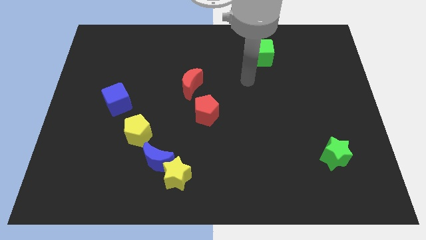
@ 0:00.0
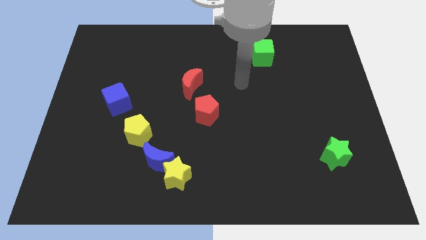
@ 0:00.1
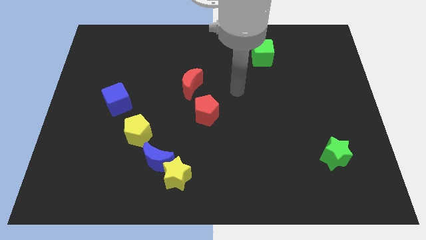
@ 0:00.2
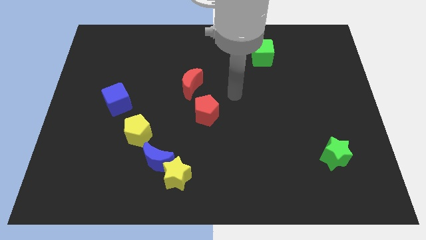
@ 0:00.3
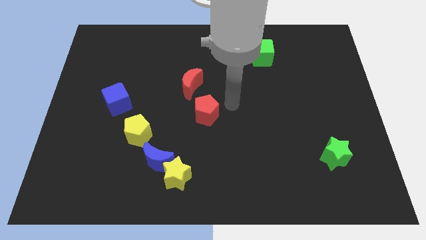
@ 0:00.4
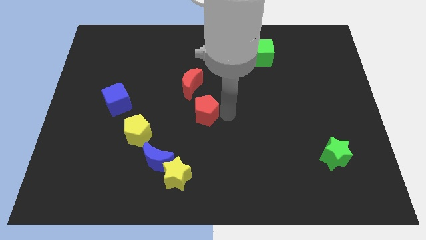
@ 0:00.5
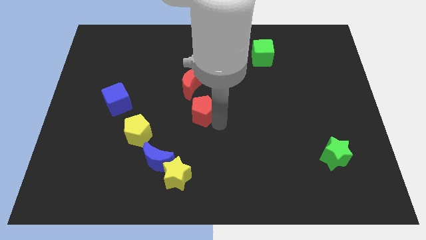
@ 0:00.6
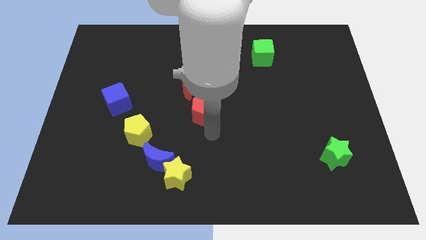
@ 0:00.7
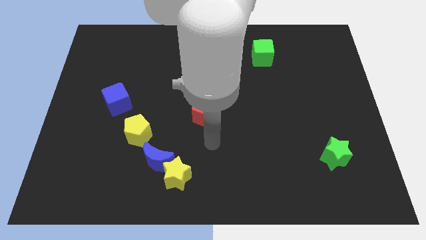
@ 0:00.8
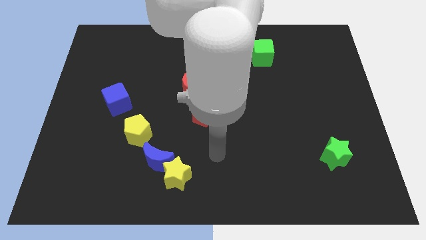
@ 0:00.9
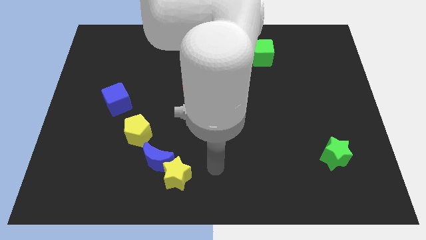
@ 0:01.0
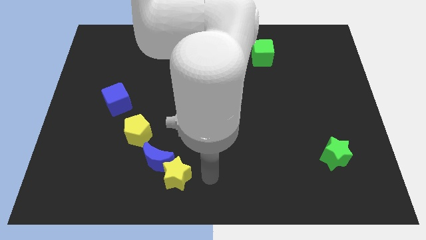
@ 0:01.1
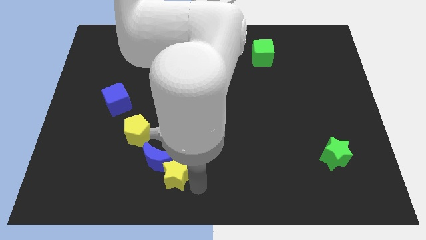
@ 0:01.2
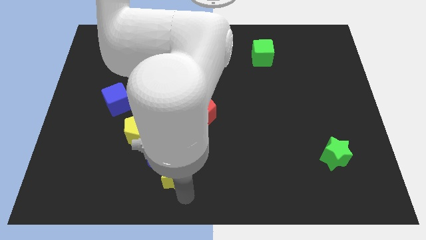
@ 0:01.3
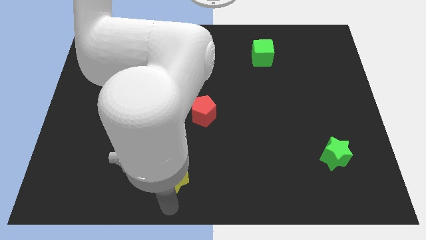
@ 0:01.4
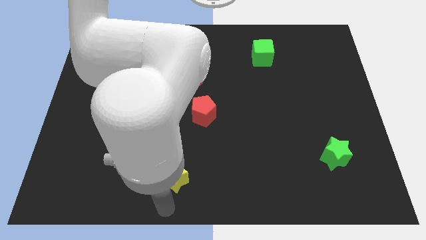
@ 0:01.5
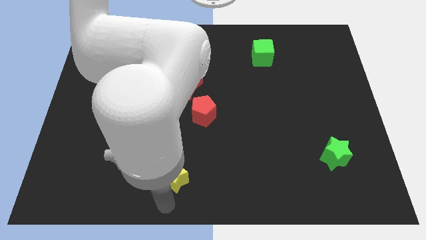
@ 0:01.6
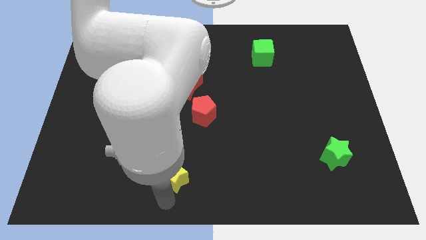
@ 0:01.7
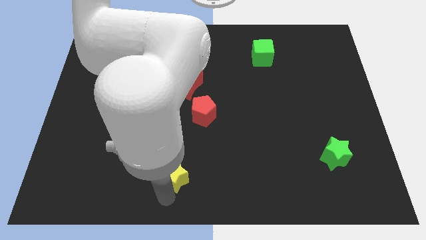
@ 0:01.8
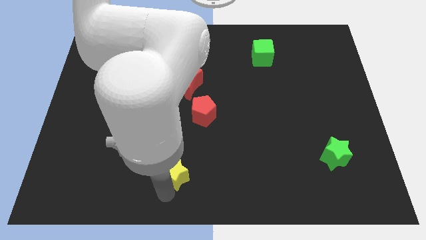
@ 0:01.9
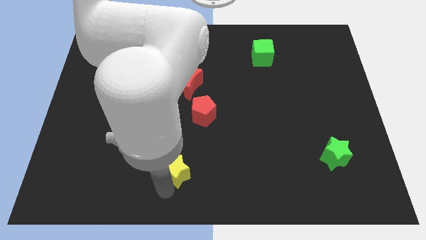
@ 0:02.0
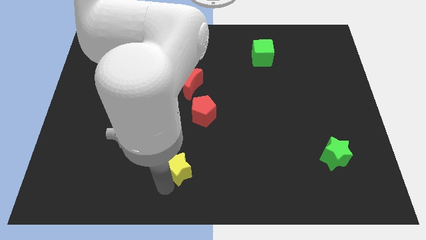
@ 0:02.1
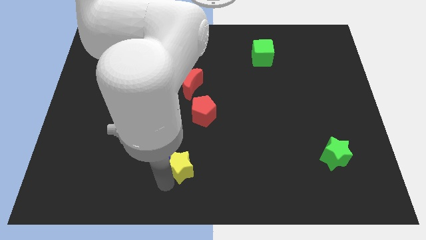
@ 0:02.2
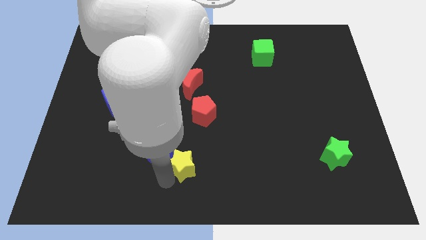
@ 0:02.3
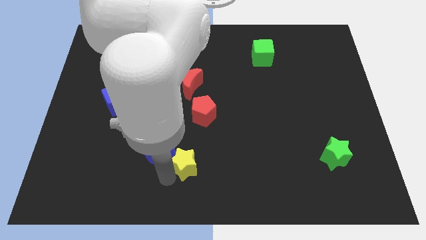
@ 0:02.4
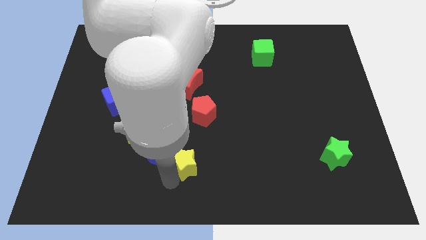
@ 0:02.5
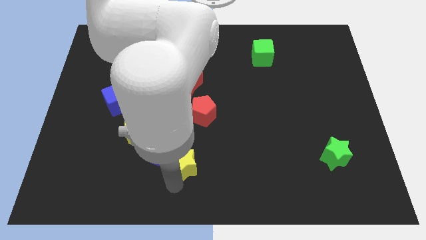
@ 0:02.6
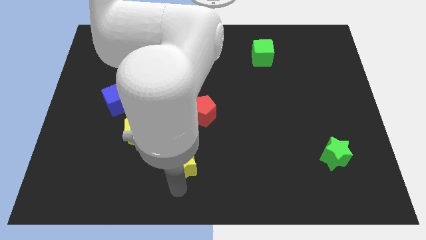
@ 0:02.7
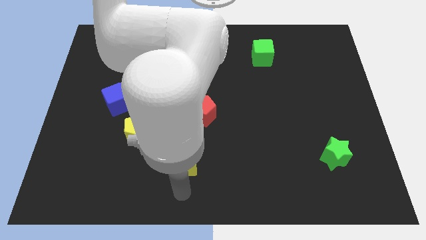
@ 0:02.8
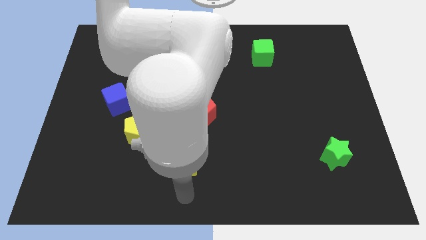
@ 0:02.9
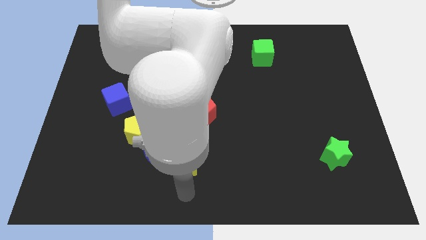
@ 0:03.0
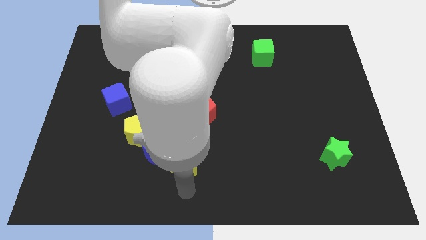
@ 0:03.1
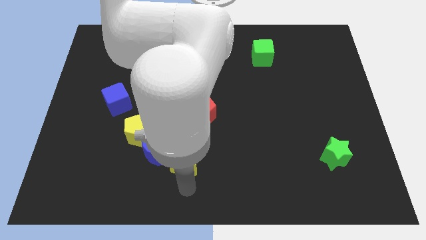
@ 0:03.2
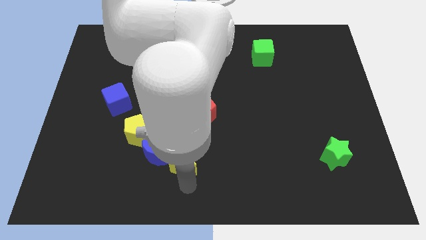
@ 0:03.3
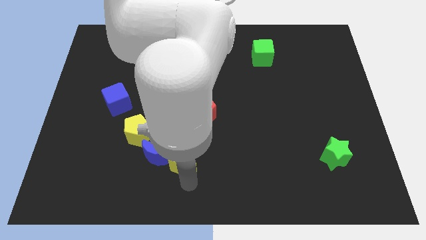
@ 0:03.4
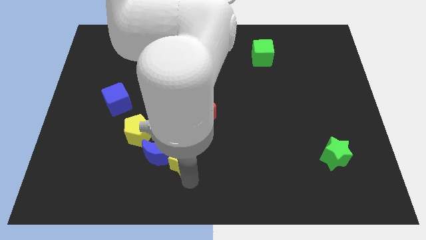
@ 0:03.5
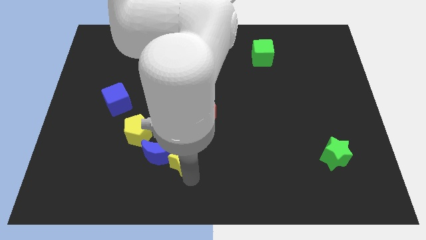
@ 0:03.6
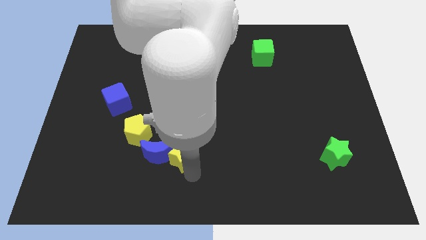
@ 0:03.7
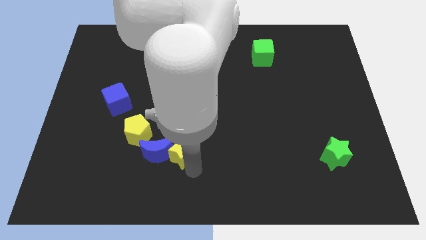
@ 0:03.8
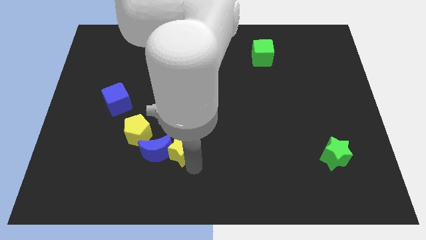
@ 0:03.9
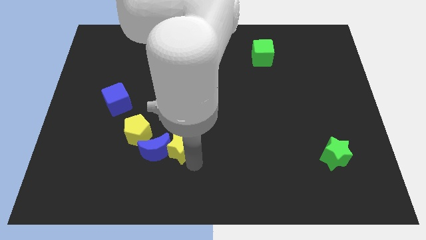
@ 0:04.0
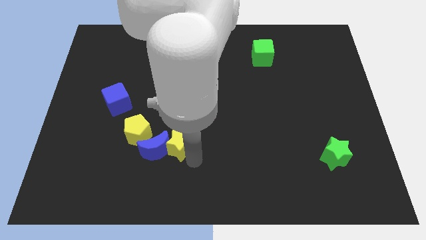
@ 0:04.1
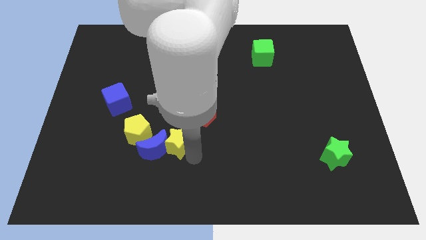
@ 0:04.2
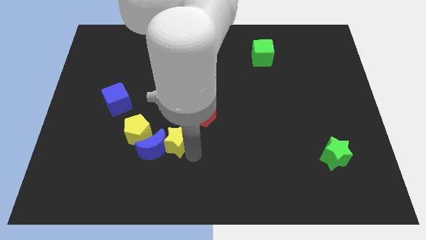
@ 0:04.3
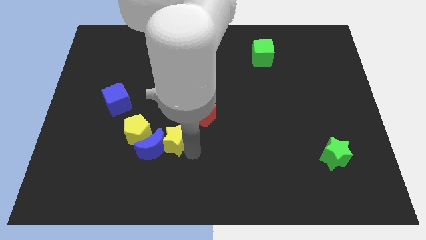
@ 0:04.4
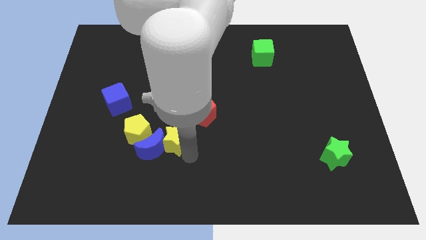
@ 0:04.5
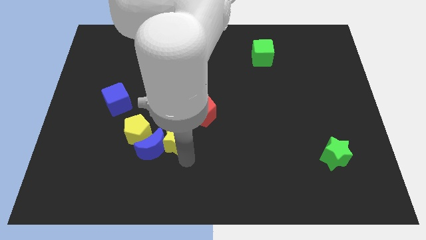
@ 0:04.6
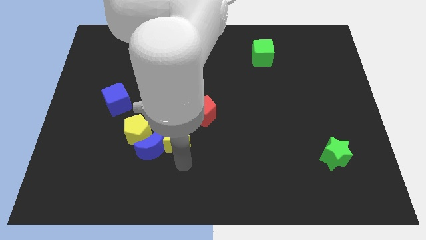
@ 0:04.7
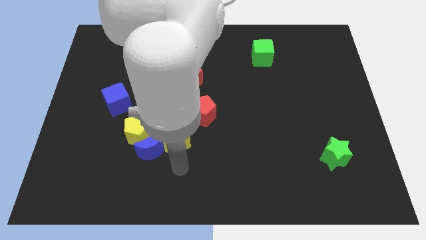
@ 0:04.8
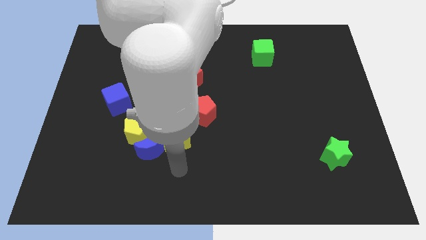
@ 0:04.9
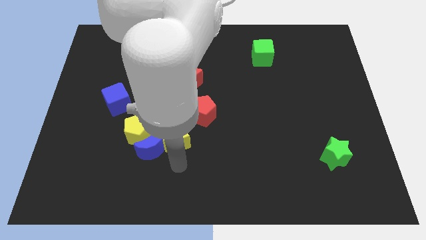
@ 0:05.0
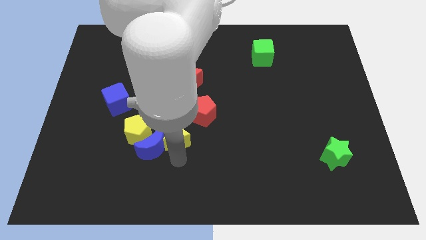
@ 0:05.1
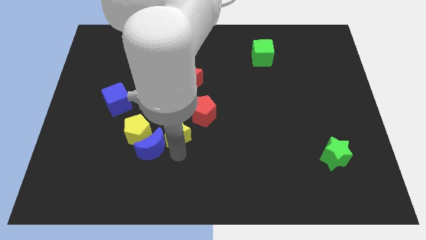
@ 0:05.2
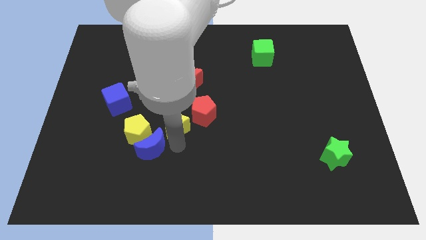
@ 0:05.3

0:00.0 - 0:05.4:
move the yellow star to the middle

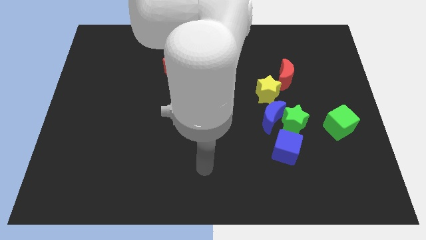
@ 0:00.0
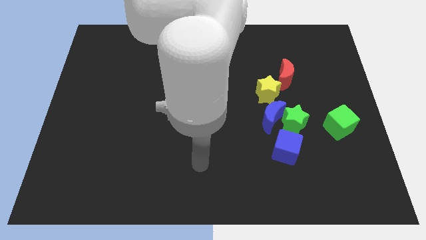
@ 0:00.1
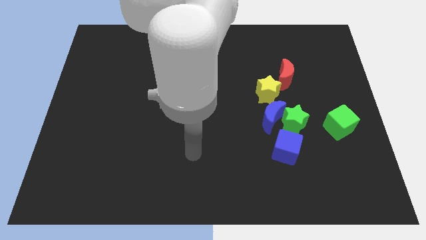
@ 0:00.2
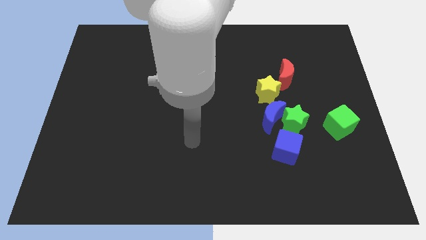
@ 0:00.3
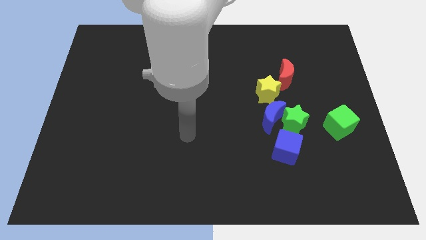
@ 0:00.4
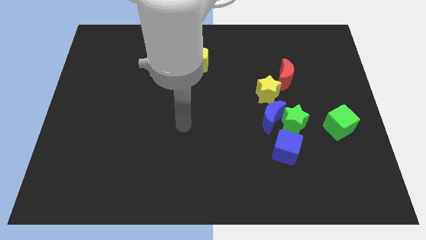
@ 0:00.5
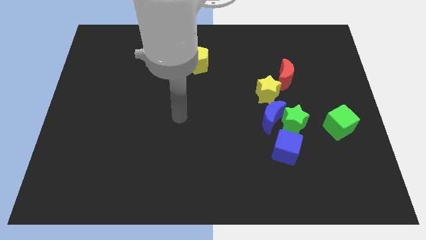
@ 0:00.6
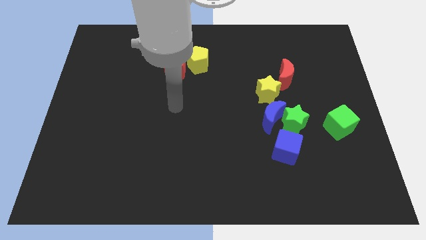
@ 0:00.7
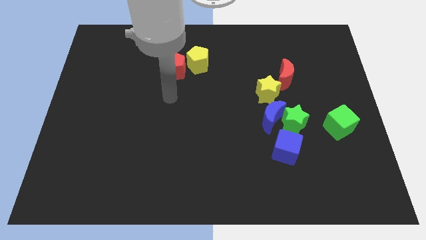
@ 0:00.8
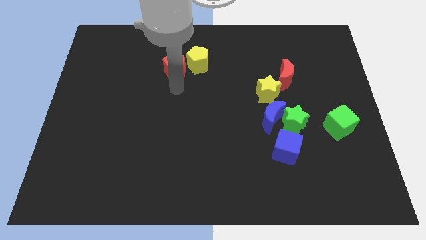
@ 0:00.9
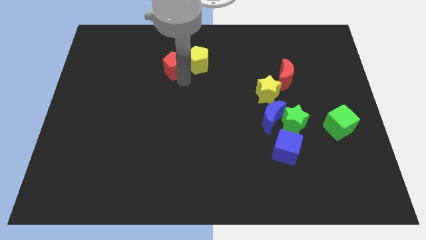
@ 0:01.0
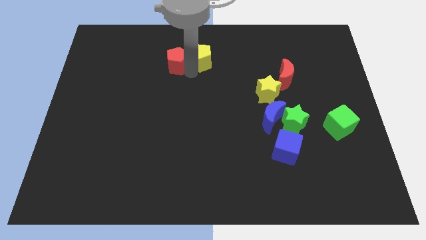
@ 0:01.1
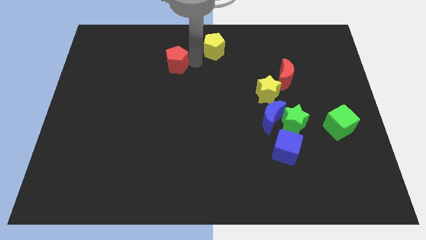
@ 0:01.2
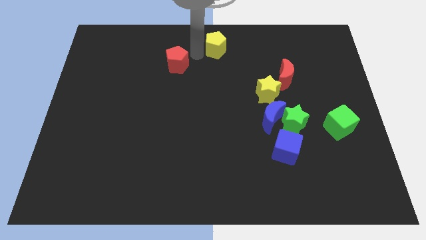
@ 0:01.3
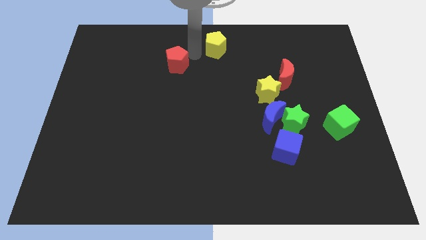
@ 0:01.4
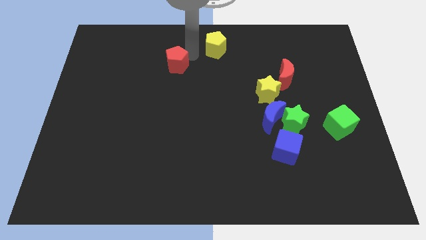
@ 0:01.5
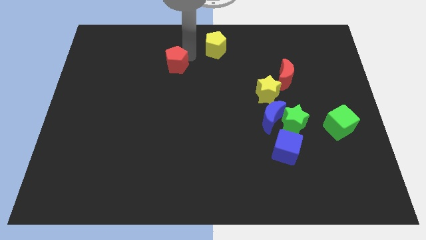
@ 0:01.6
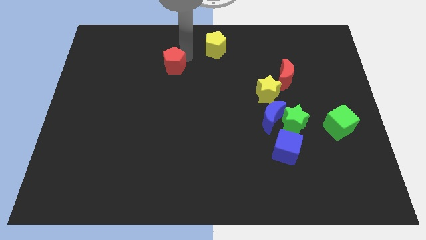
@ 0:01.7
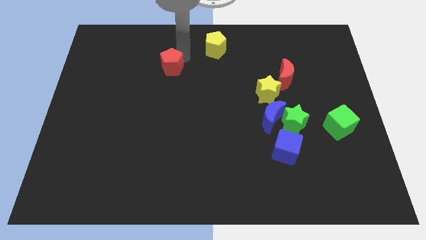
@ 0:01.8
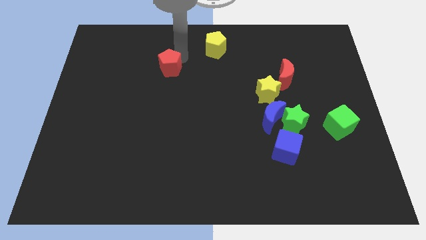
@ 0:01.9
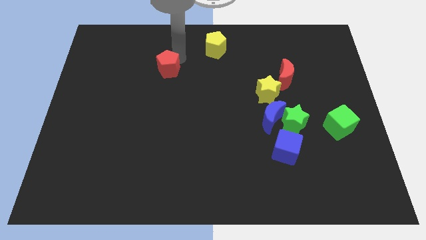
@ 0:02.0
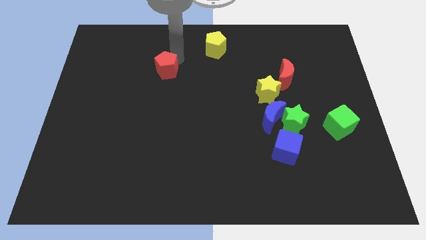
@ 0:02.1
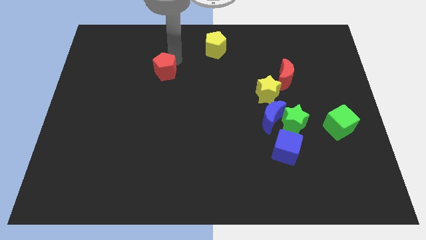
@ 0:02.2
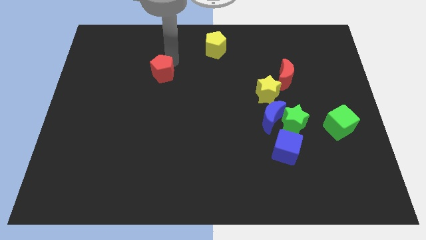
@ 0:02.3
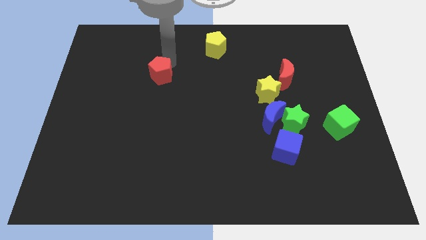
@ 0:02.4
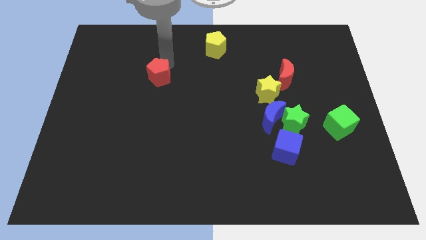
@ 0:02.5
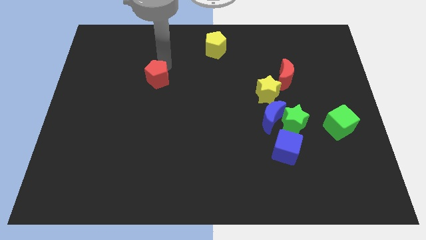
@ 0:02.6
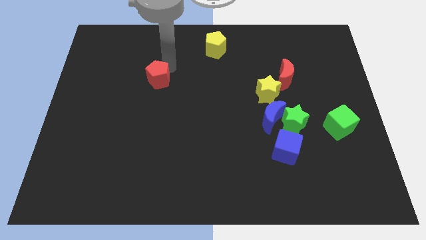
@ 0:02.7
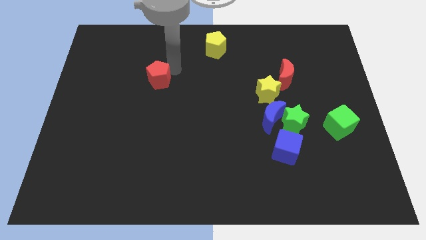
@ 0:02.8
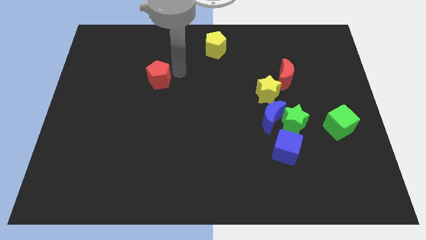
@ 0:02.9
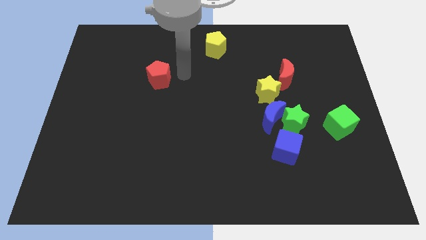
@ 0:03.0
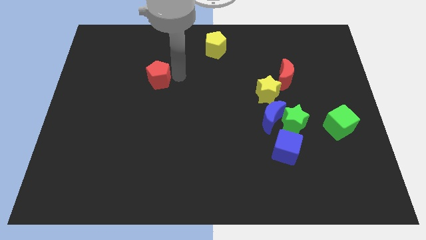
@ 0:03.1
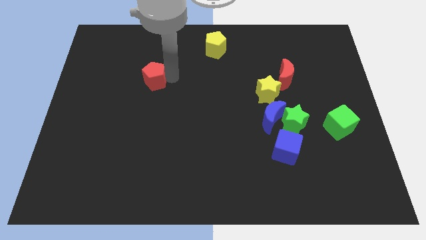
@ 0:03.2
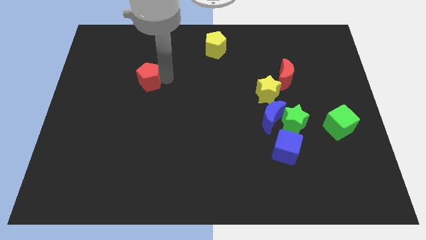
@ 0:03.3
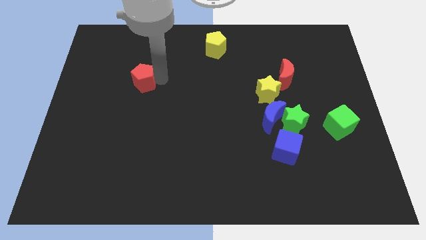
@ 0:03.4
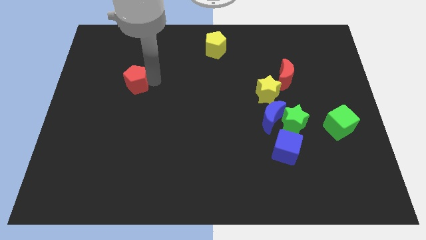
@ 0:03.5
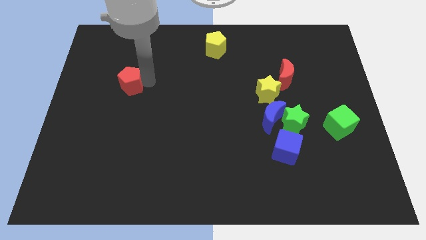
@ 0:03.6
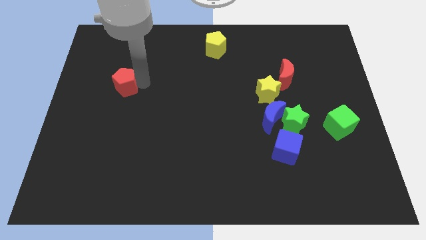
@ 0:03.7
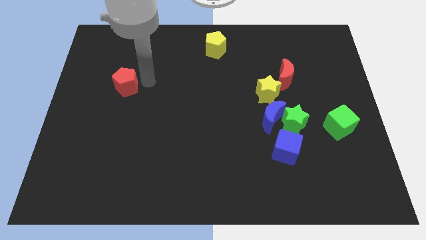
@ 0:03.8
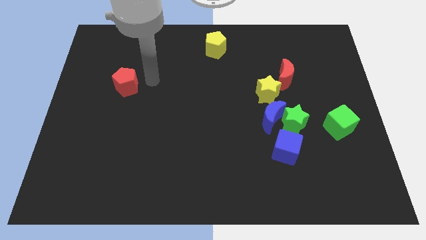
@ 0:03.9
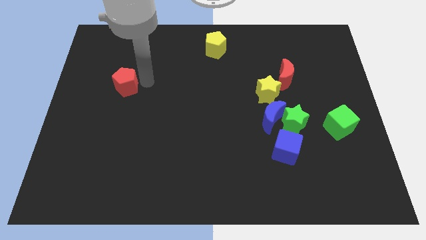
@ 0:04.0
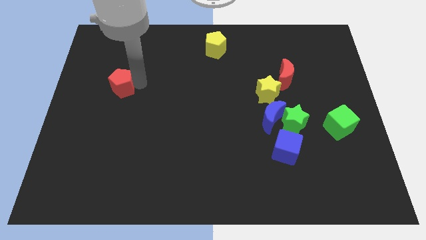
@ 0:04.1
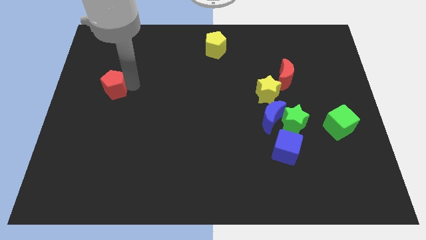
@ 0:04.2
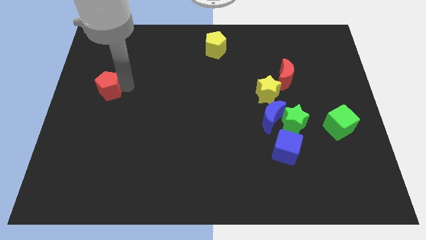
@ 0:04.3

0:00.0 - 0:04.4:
slide the red pentagon to the left side
